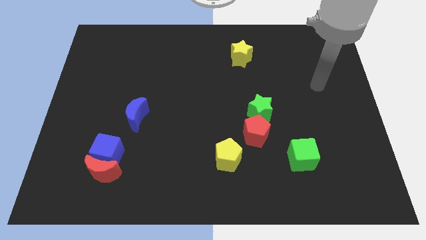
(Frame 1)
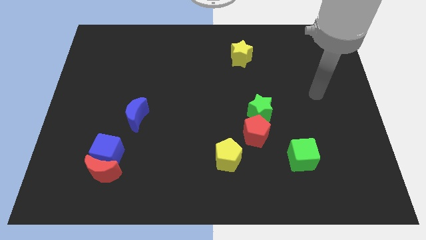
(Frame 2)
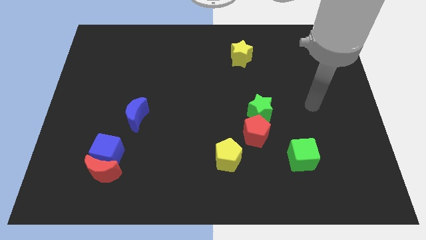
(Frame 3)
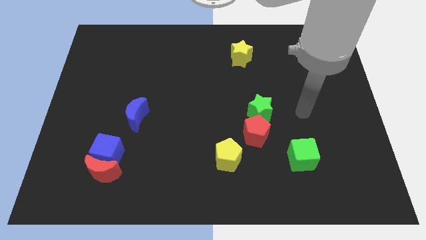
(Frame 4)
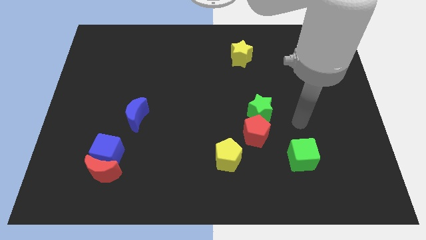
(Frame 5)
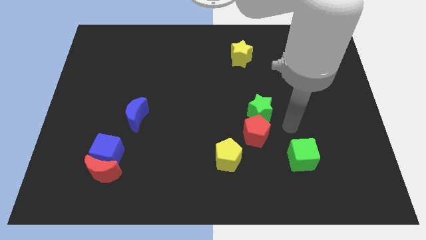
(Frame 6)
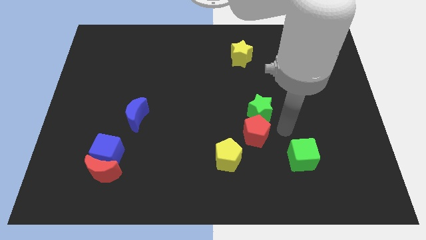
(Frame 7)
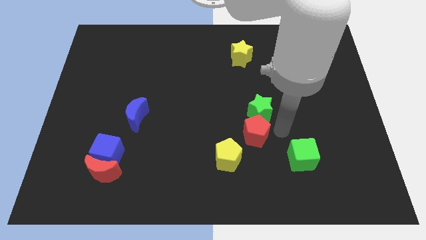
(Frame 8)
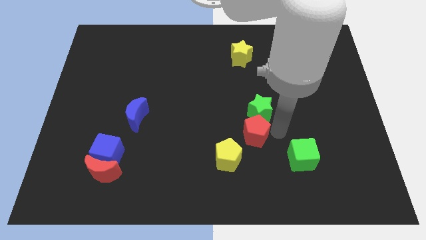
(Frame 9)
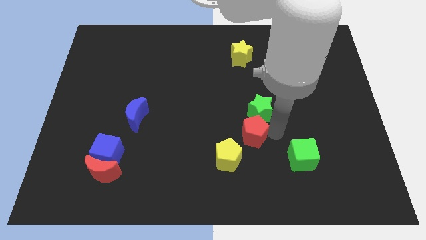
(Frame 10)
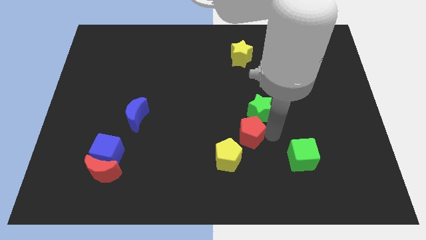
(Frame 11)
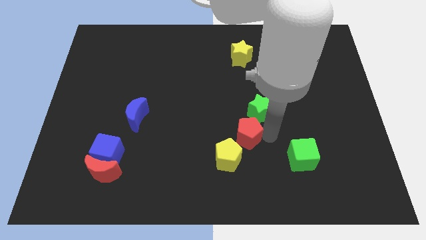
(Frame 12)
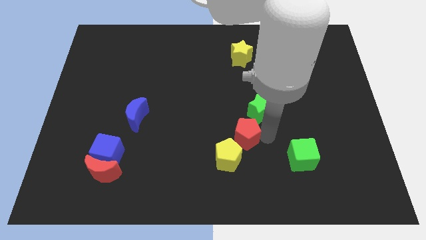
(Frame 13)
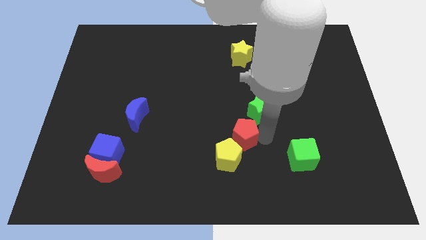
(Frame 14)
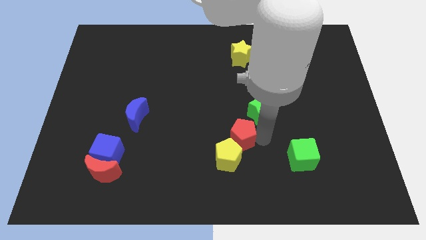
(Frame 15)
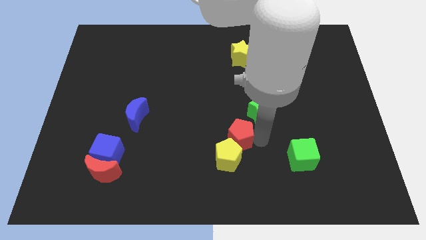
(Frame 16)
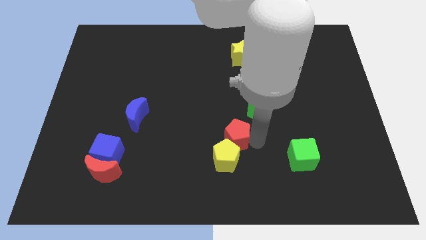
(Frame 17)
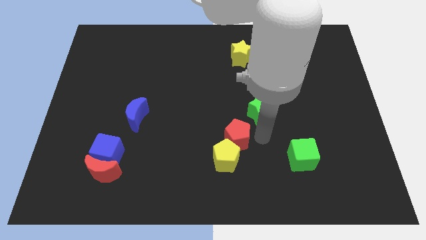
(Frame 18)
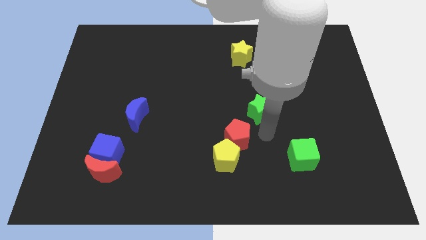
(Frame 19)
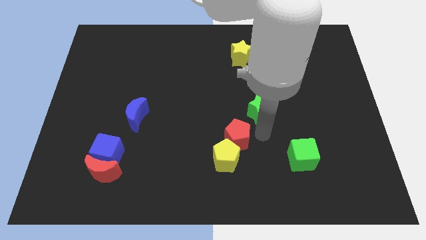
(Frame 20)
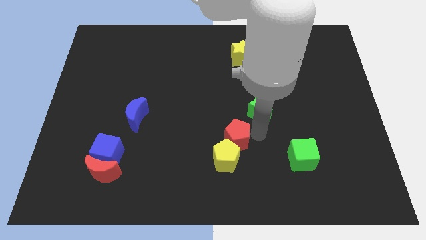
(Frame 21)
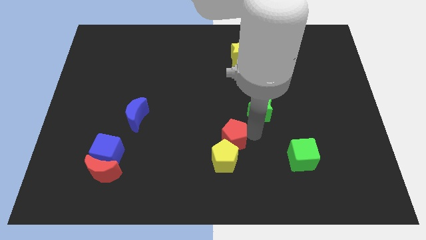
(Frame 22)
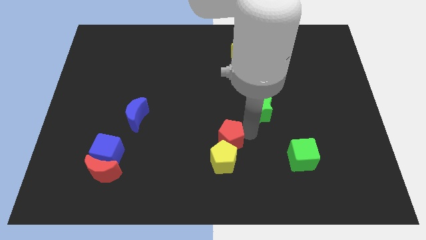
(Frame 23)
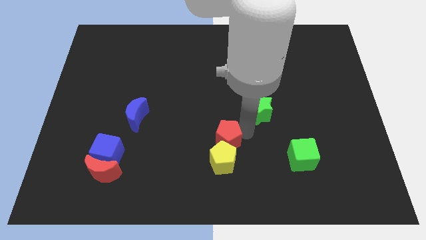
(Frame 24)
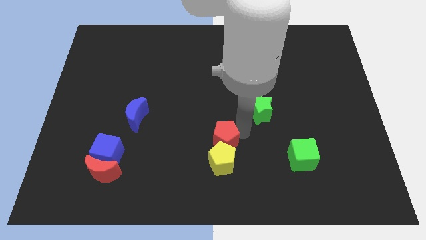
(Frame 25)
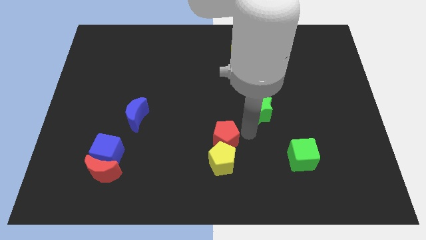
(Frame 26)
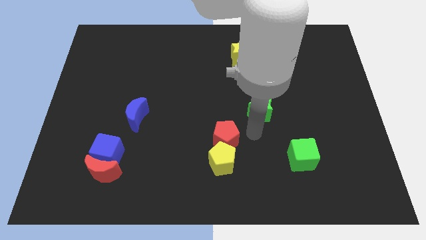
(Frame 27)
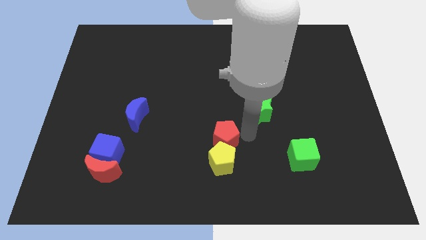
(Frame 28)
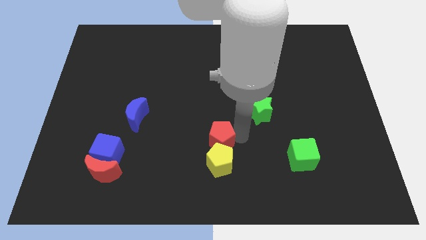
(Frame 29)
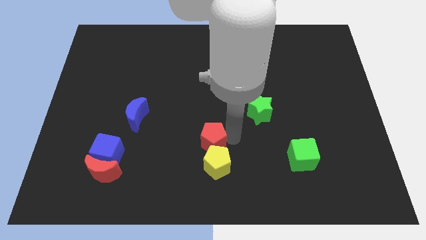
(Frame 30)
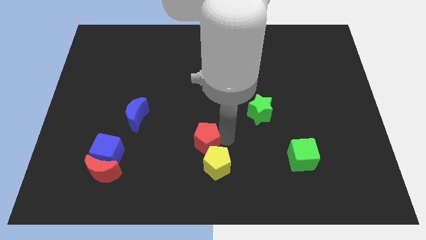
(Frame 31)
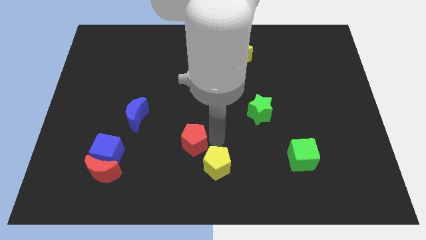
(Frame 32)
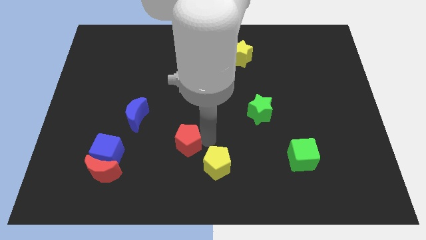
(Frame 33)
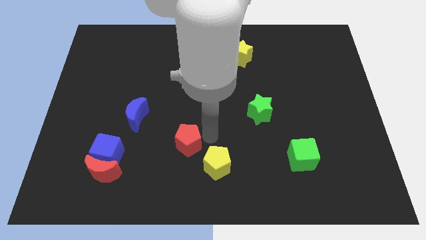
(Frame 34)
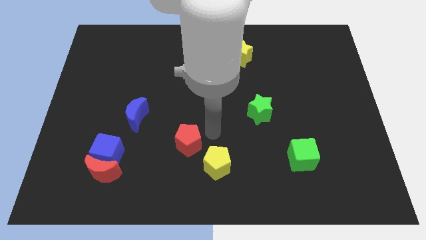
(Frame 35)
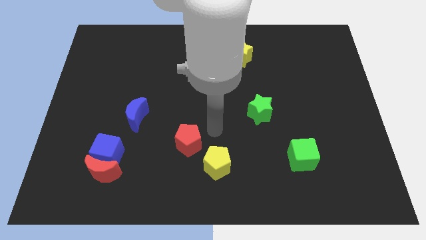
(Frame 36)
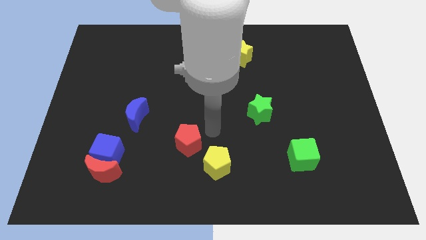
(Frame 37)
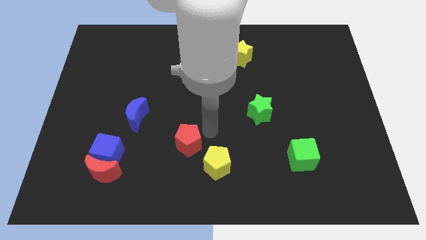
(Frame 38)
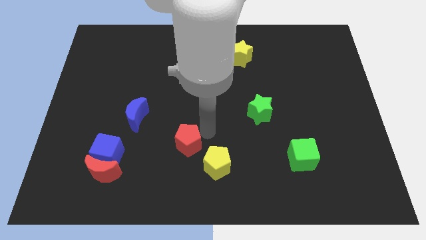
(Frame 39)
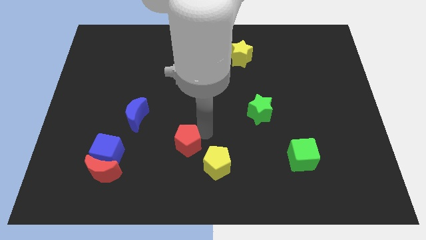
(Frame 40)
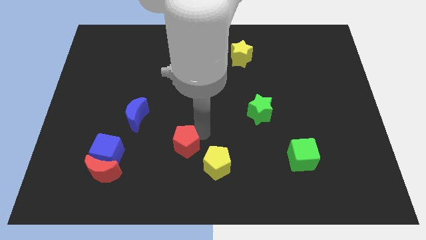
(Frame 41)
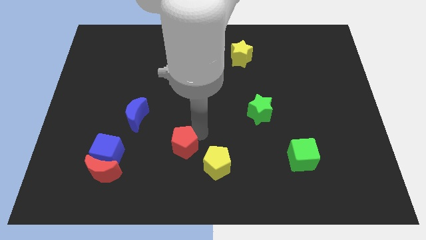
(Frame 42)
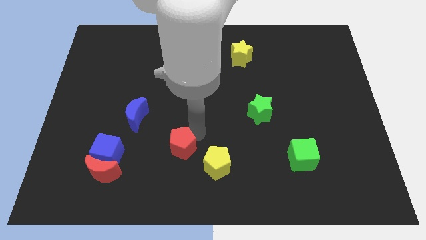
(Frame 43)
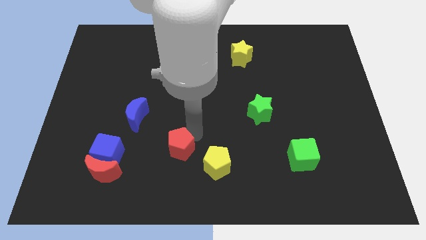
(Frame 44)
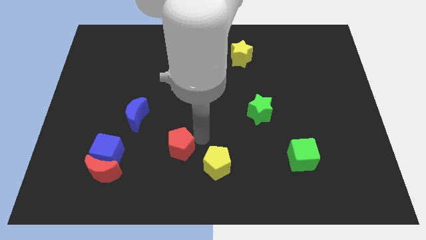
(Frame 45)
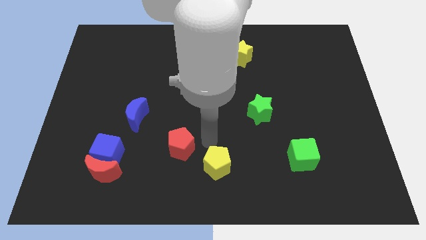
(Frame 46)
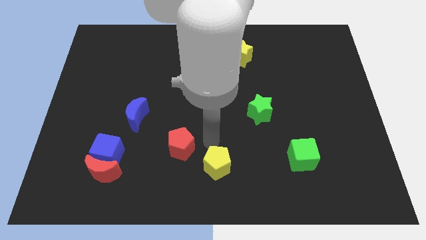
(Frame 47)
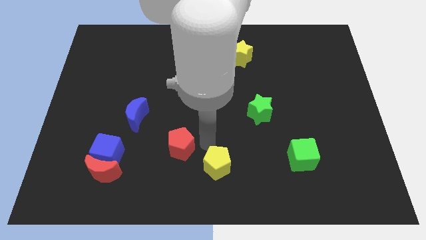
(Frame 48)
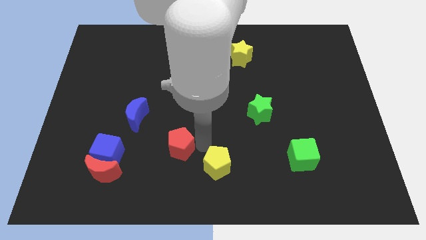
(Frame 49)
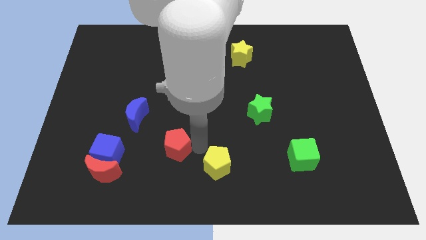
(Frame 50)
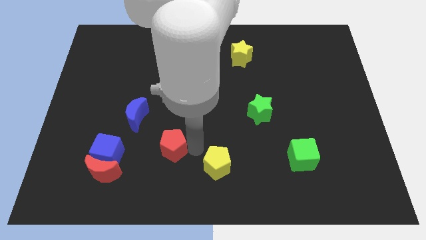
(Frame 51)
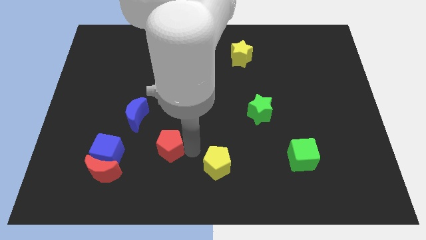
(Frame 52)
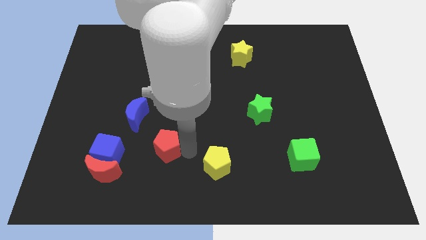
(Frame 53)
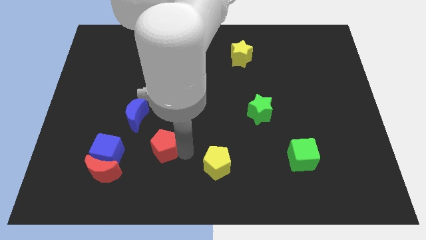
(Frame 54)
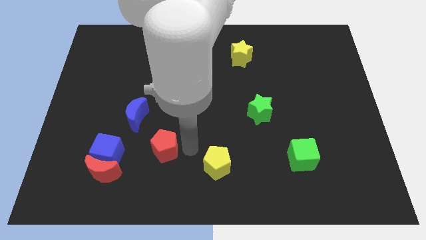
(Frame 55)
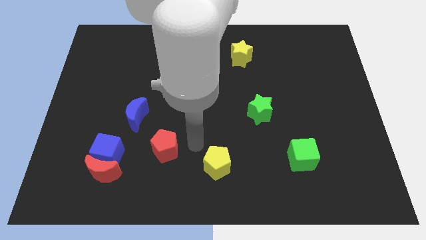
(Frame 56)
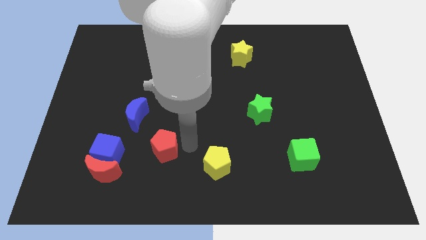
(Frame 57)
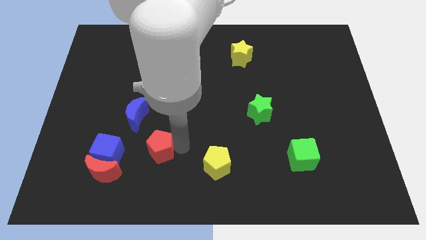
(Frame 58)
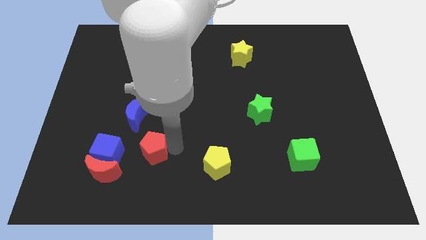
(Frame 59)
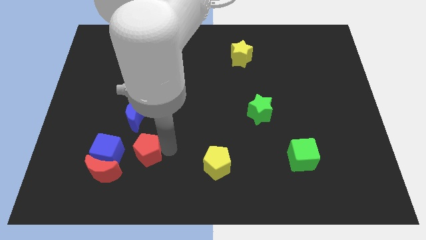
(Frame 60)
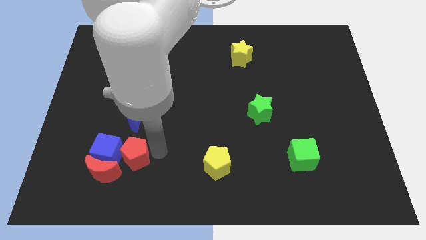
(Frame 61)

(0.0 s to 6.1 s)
push the red pentagon close to the blue cube

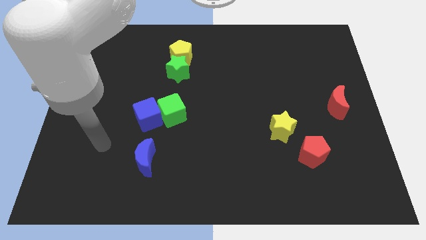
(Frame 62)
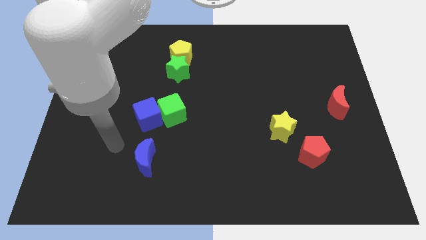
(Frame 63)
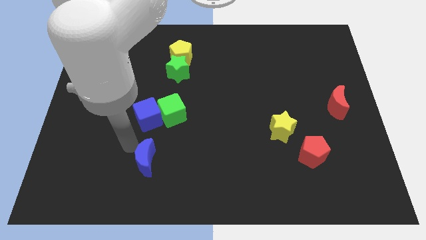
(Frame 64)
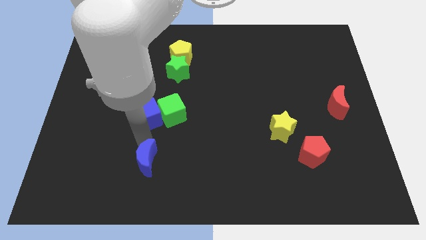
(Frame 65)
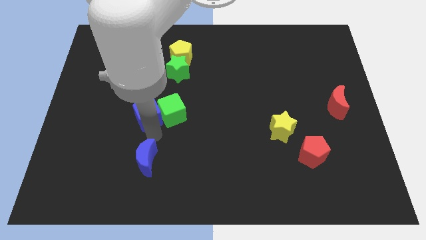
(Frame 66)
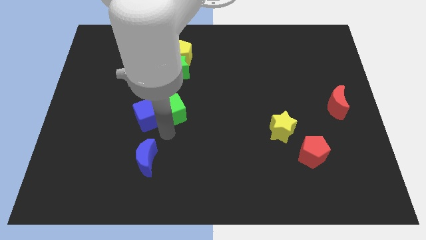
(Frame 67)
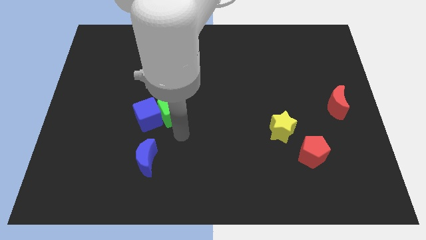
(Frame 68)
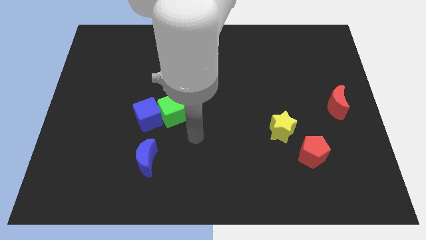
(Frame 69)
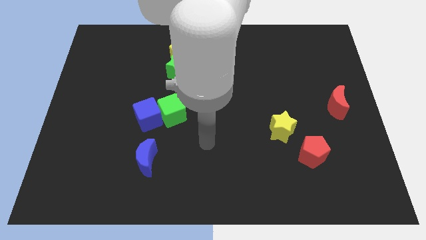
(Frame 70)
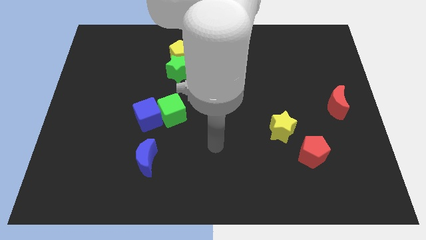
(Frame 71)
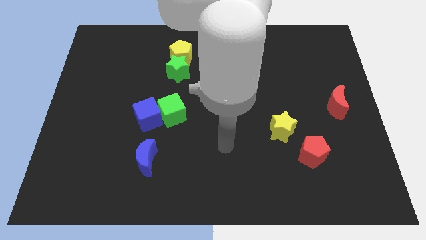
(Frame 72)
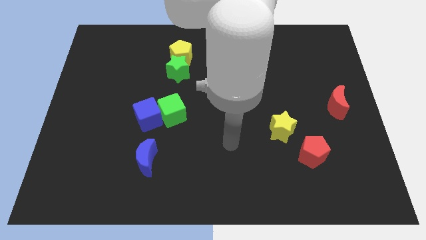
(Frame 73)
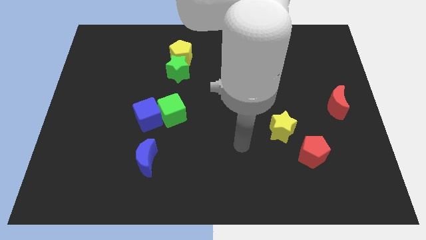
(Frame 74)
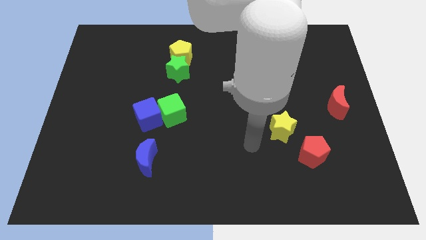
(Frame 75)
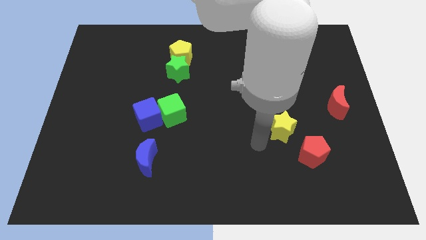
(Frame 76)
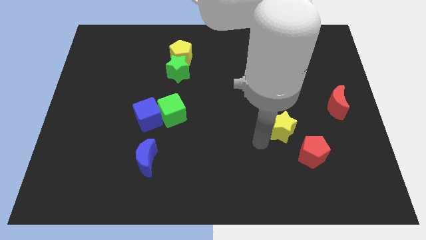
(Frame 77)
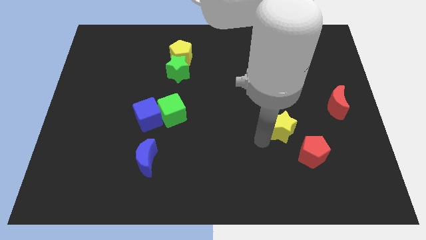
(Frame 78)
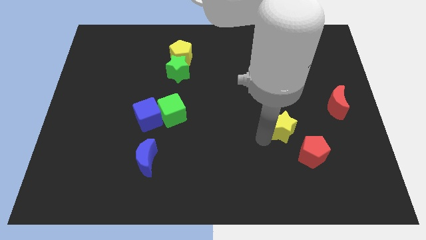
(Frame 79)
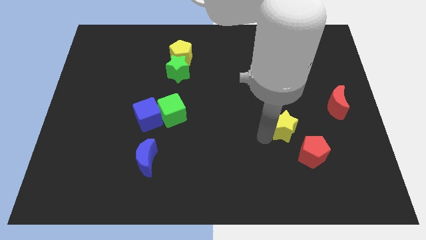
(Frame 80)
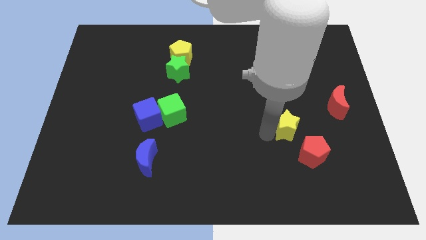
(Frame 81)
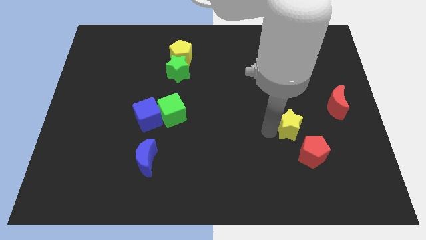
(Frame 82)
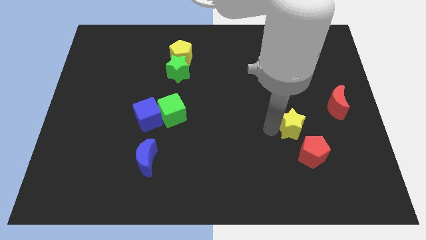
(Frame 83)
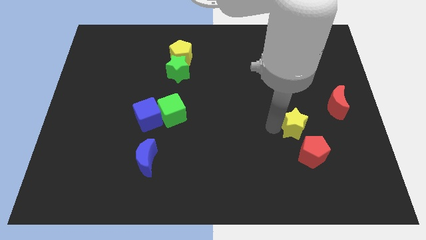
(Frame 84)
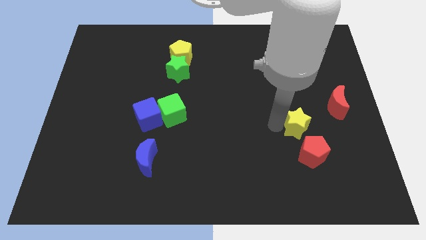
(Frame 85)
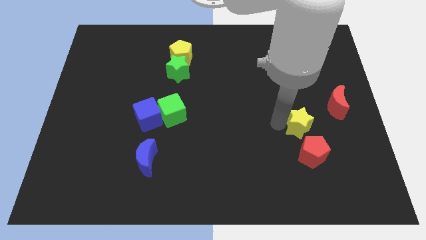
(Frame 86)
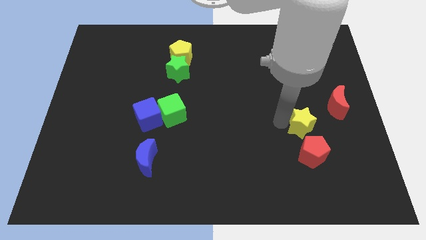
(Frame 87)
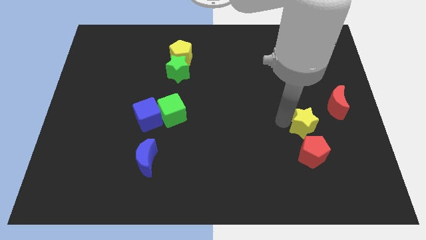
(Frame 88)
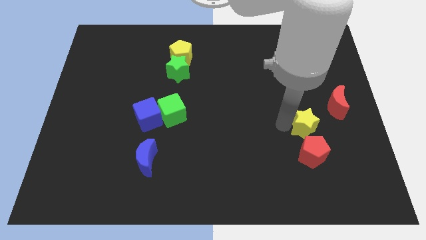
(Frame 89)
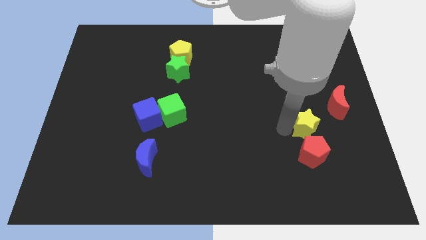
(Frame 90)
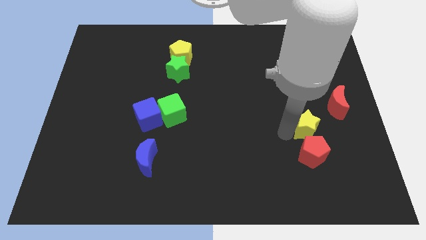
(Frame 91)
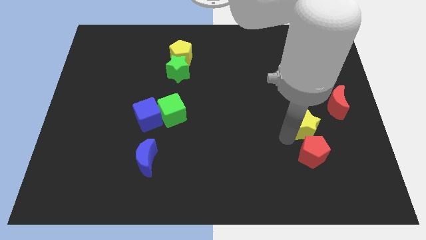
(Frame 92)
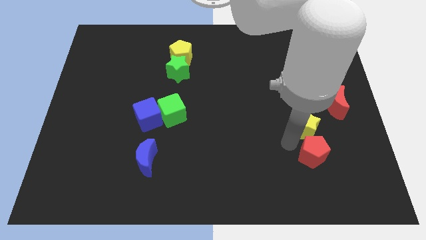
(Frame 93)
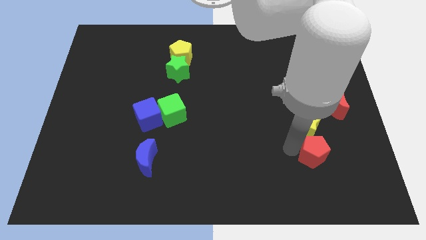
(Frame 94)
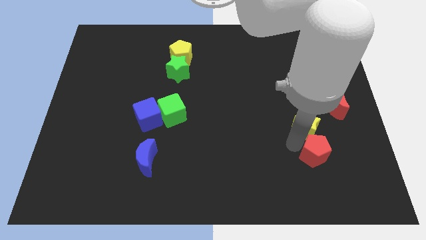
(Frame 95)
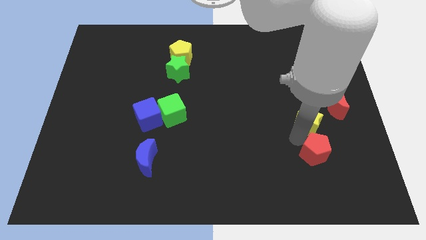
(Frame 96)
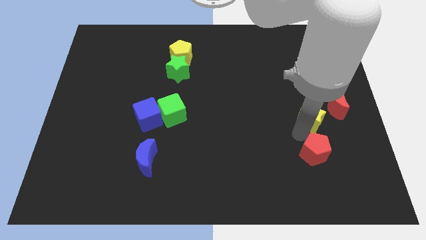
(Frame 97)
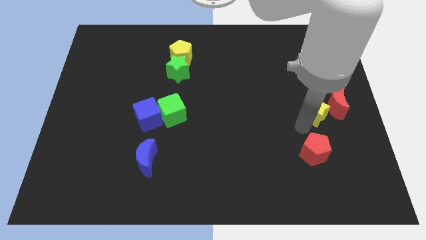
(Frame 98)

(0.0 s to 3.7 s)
slide the yellow star to the red moon
